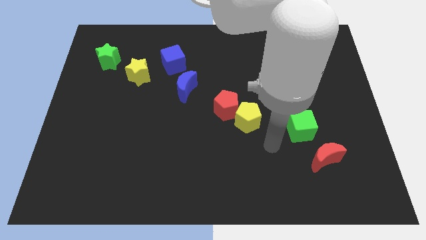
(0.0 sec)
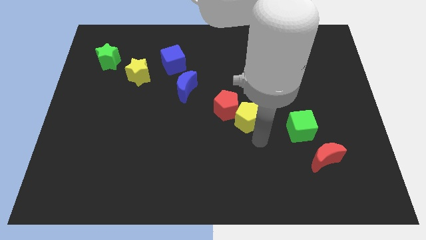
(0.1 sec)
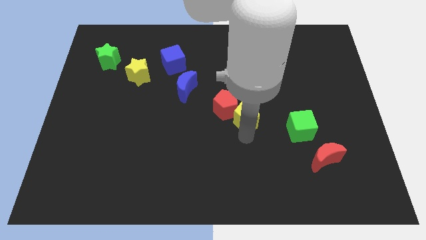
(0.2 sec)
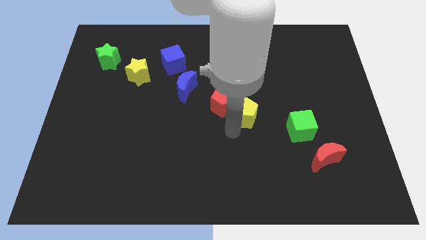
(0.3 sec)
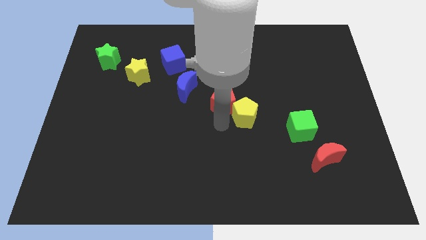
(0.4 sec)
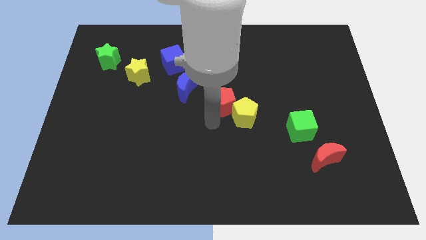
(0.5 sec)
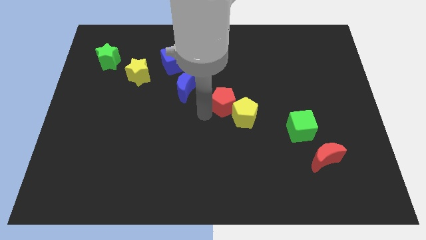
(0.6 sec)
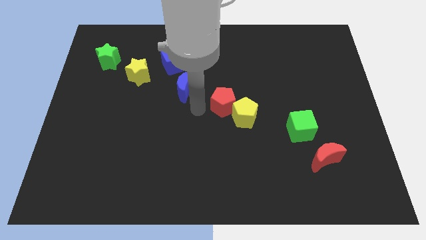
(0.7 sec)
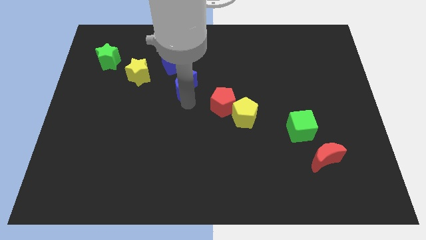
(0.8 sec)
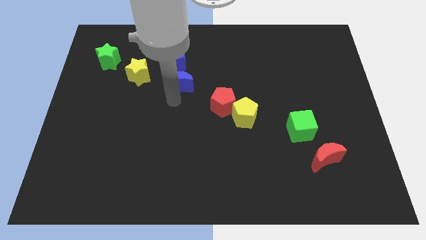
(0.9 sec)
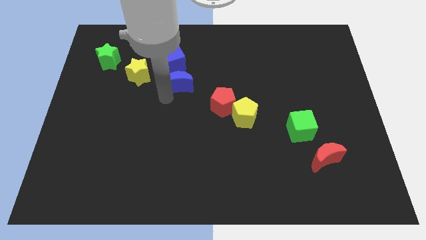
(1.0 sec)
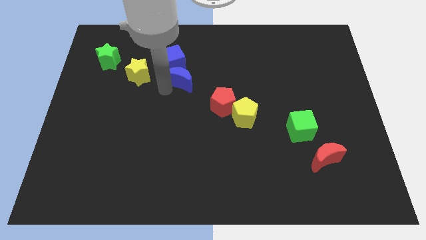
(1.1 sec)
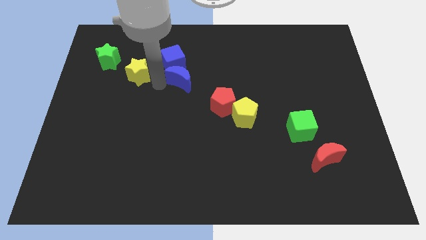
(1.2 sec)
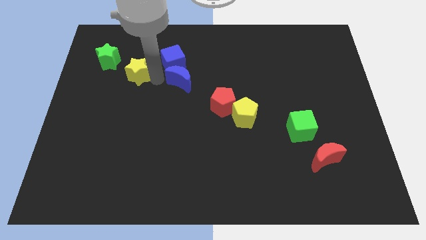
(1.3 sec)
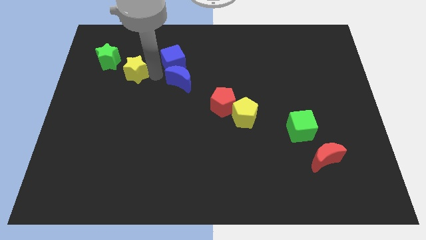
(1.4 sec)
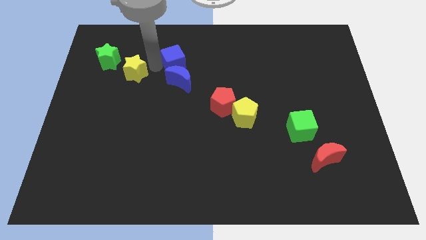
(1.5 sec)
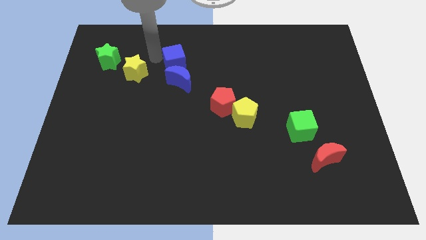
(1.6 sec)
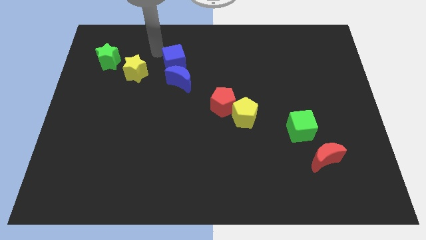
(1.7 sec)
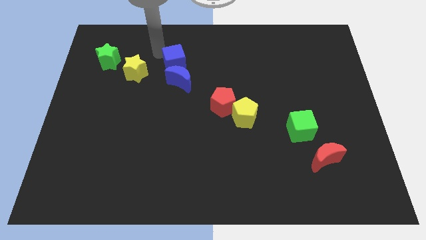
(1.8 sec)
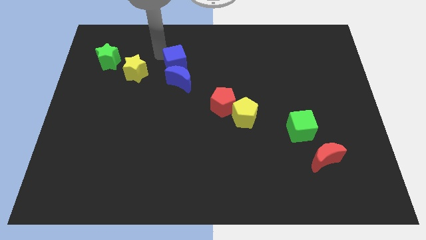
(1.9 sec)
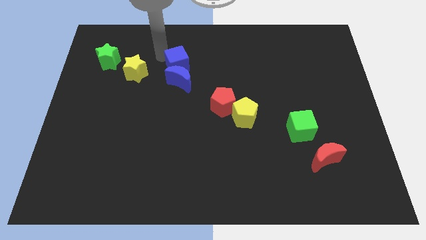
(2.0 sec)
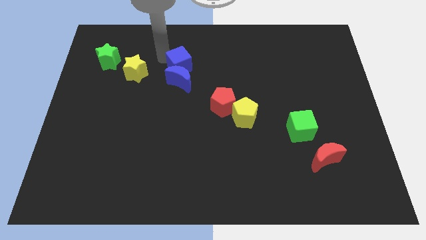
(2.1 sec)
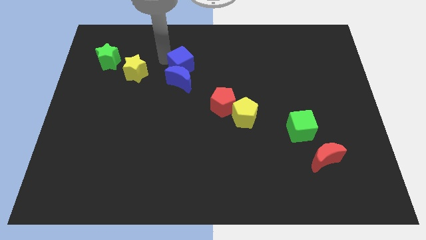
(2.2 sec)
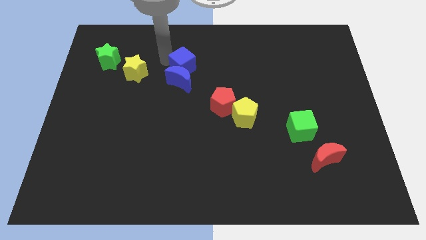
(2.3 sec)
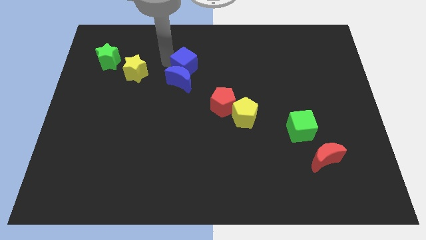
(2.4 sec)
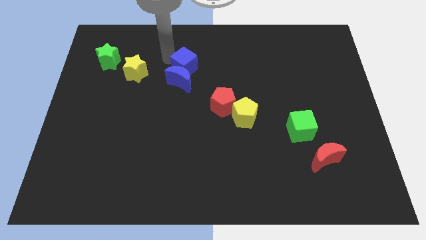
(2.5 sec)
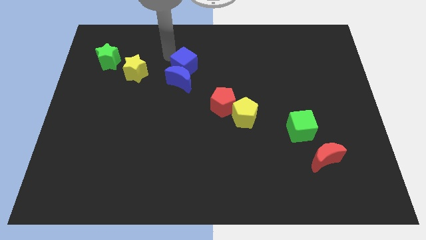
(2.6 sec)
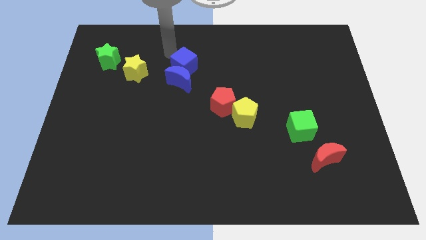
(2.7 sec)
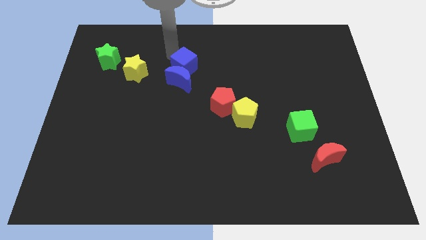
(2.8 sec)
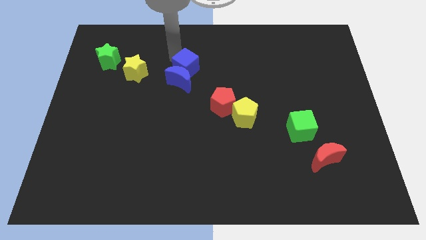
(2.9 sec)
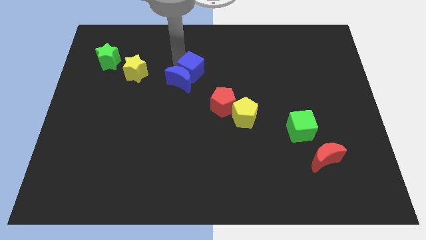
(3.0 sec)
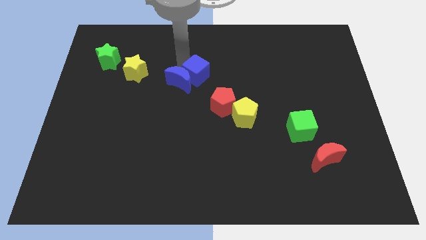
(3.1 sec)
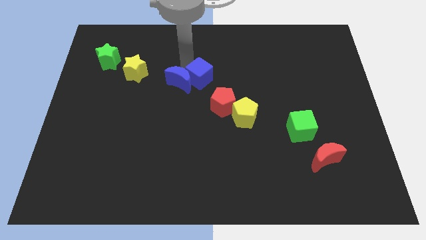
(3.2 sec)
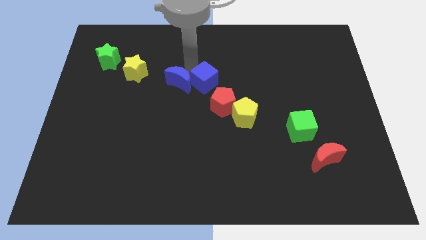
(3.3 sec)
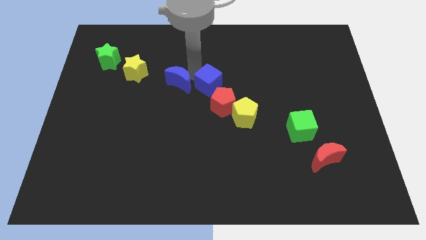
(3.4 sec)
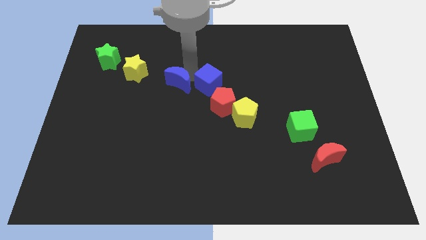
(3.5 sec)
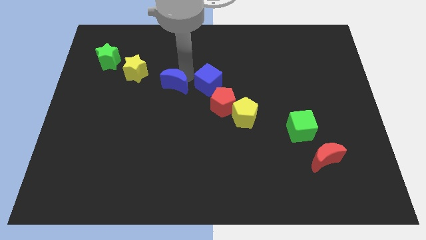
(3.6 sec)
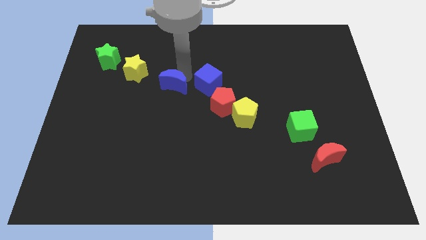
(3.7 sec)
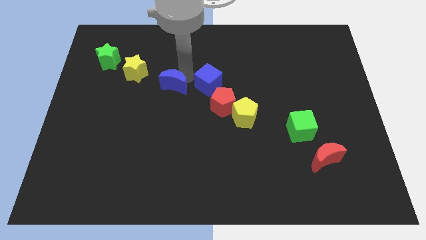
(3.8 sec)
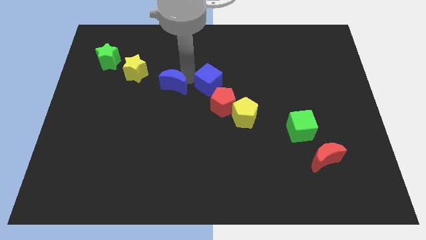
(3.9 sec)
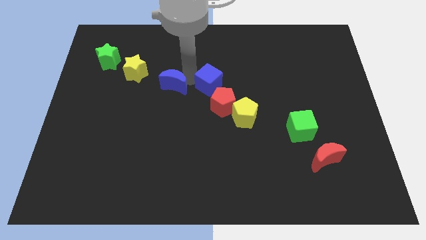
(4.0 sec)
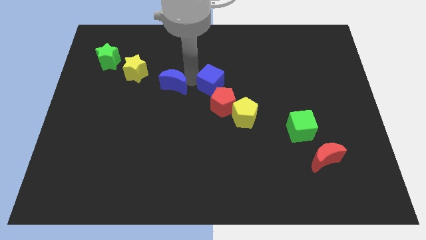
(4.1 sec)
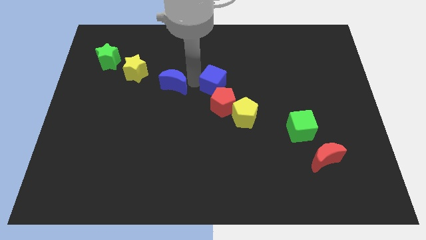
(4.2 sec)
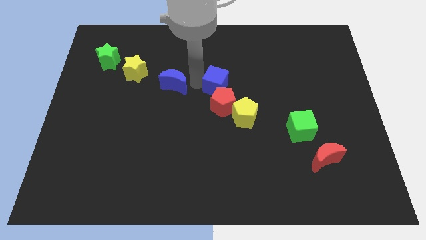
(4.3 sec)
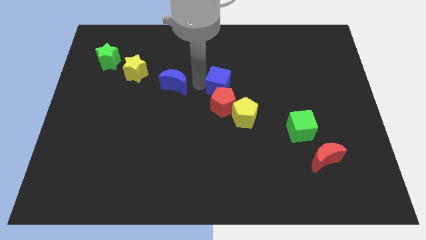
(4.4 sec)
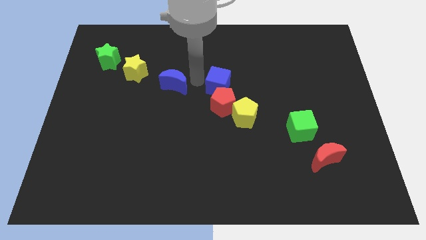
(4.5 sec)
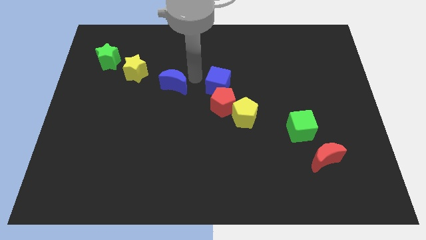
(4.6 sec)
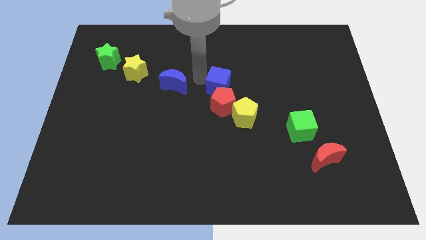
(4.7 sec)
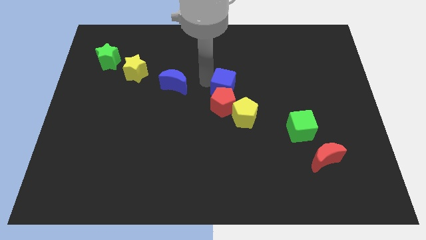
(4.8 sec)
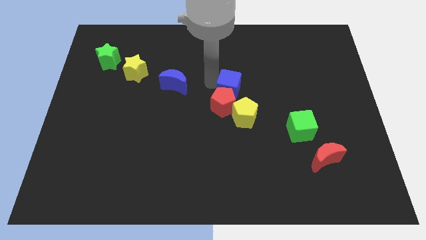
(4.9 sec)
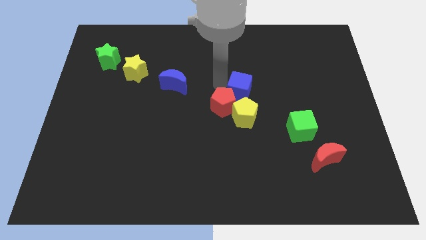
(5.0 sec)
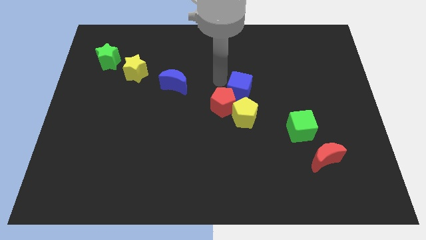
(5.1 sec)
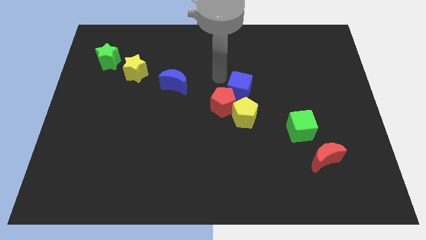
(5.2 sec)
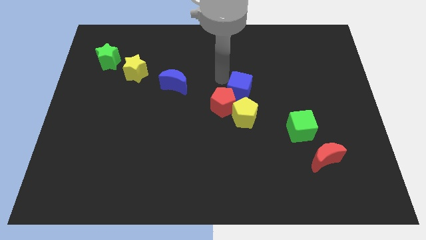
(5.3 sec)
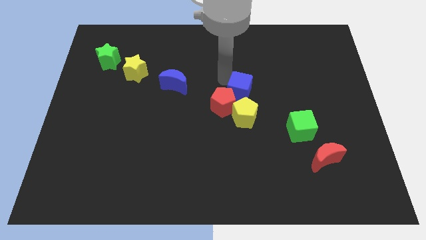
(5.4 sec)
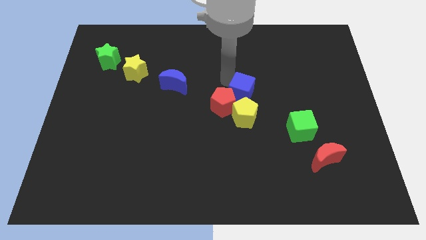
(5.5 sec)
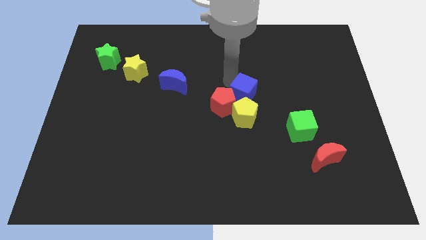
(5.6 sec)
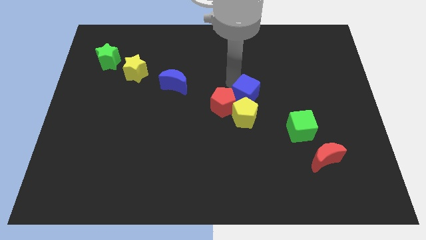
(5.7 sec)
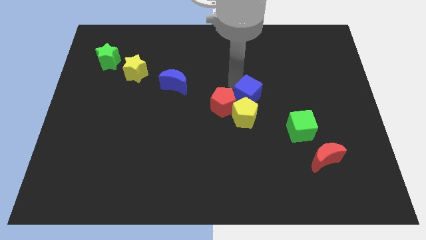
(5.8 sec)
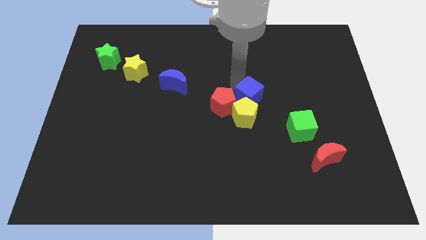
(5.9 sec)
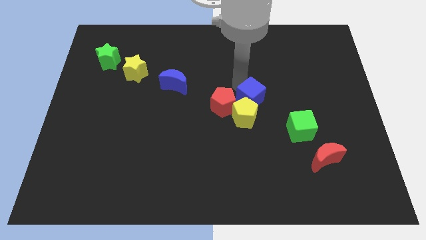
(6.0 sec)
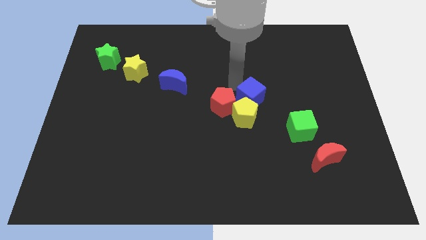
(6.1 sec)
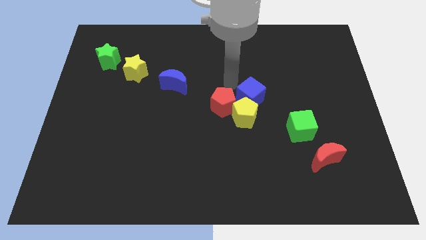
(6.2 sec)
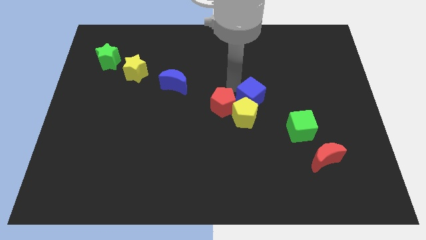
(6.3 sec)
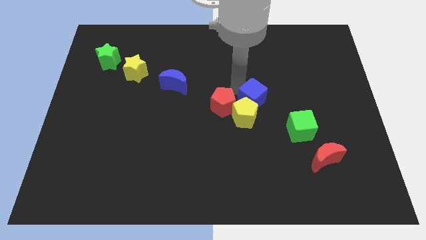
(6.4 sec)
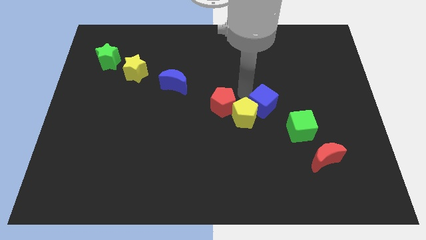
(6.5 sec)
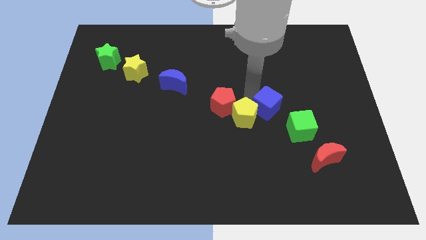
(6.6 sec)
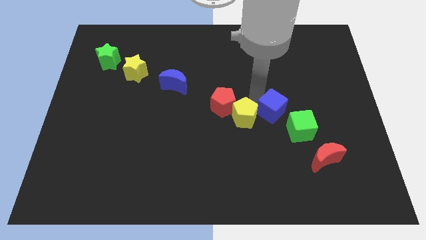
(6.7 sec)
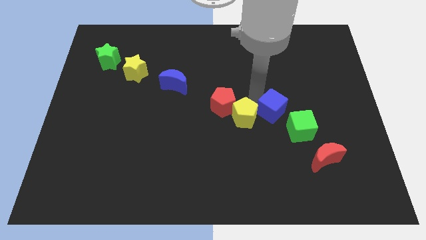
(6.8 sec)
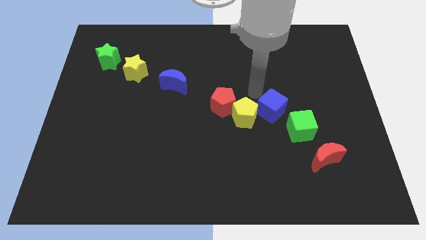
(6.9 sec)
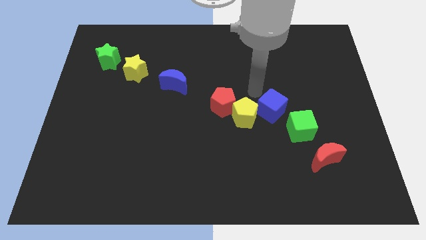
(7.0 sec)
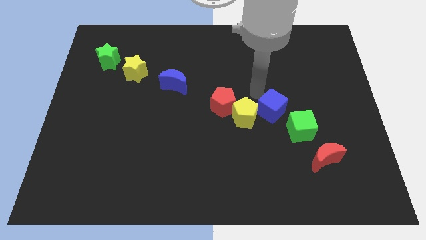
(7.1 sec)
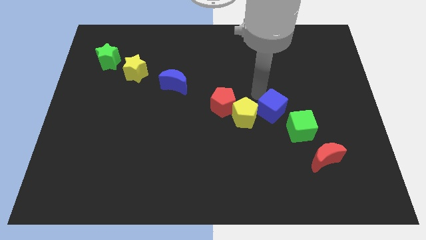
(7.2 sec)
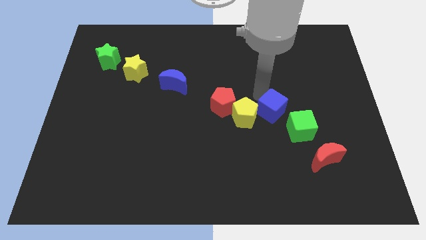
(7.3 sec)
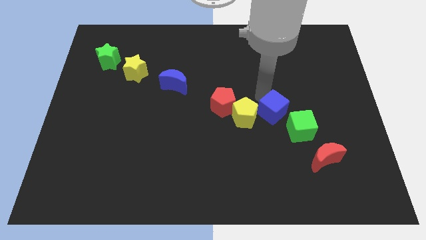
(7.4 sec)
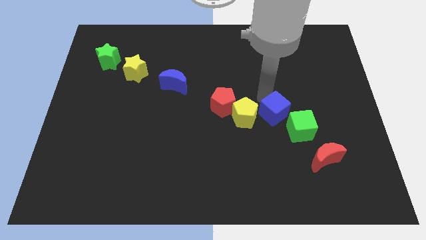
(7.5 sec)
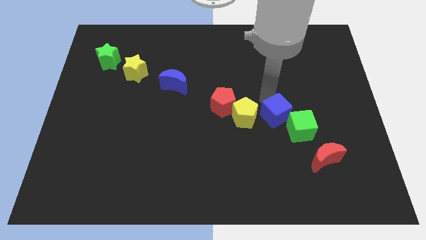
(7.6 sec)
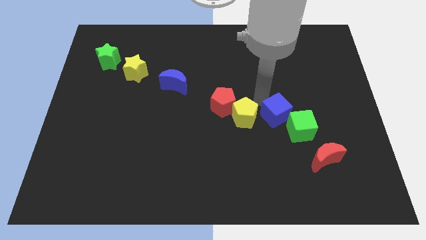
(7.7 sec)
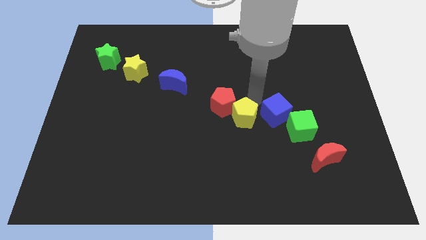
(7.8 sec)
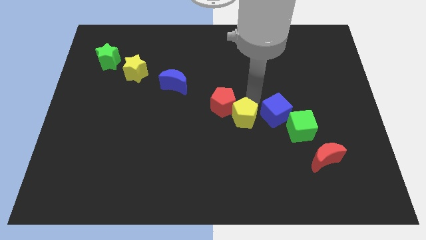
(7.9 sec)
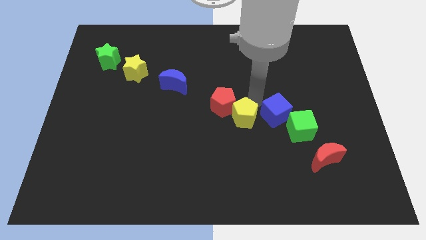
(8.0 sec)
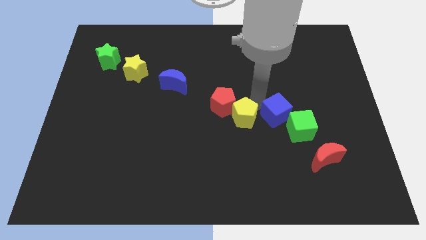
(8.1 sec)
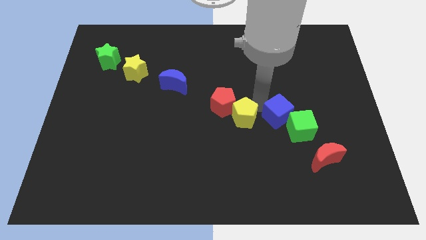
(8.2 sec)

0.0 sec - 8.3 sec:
put the blue cube towards the green cube
